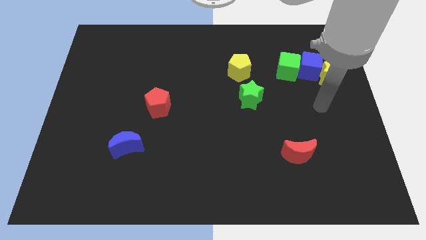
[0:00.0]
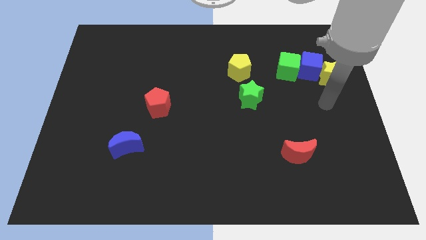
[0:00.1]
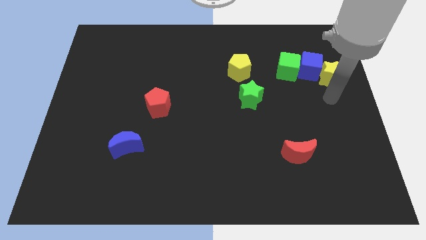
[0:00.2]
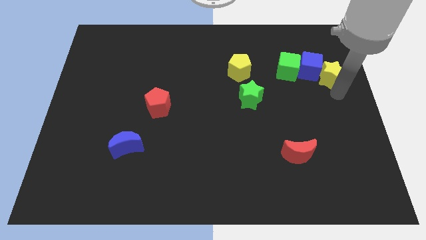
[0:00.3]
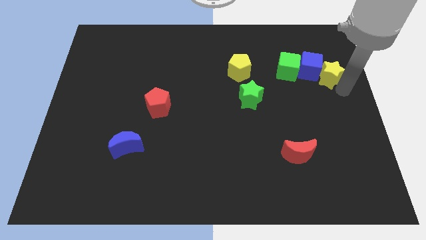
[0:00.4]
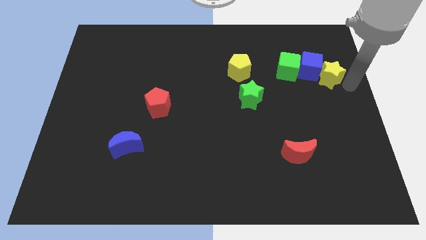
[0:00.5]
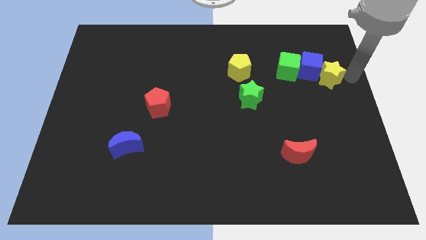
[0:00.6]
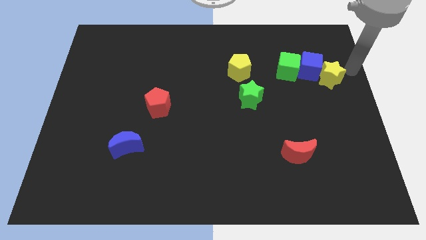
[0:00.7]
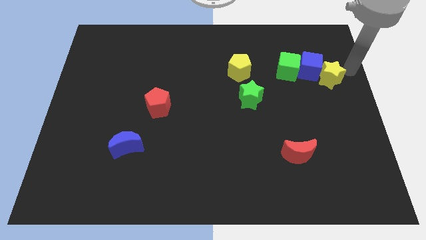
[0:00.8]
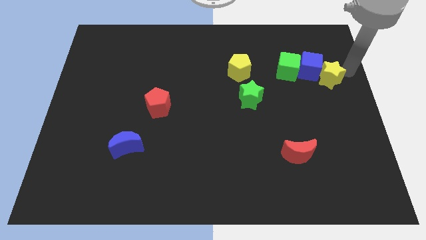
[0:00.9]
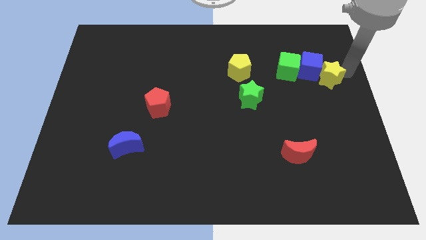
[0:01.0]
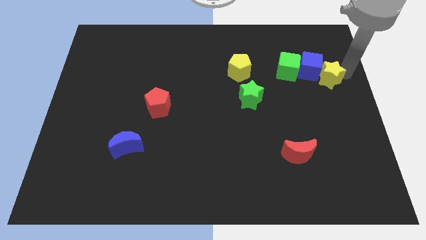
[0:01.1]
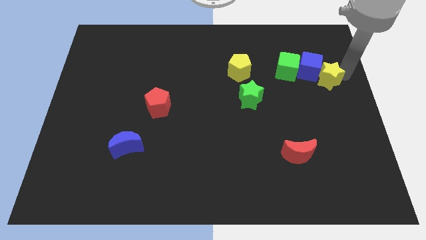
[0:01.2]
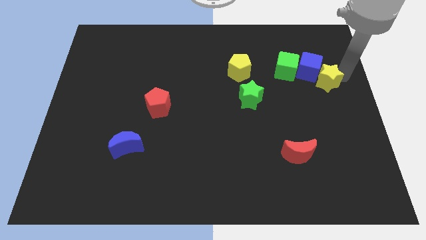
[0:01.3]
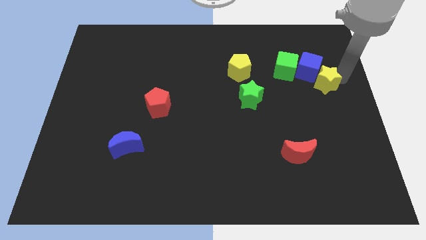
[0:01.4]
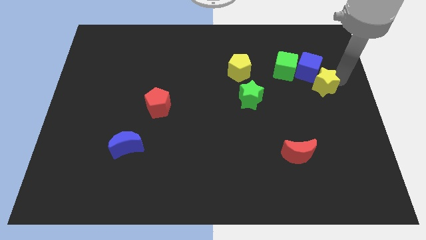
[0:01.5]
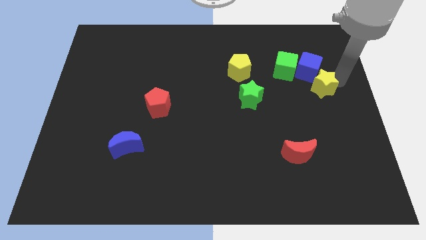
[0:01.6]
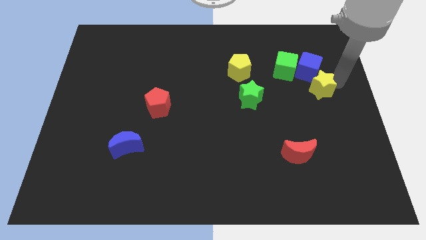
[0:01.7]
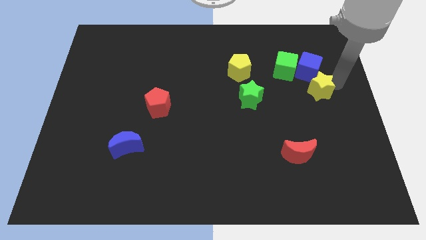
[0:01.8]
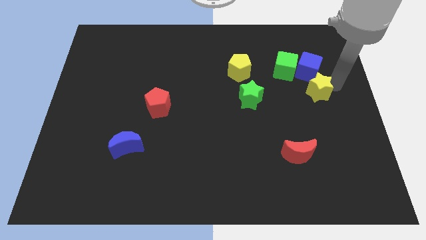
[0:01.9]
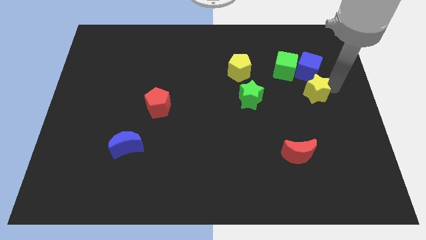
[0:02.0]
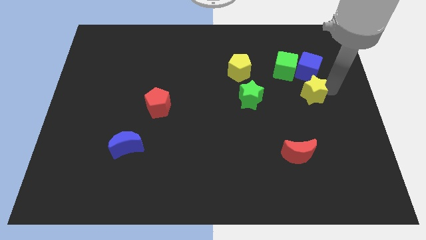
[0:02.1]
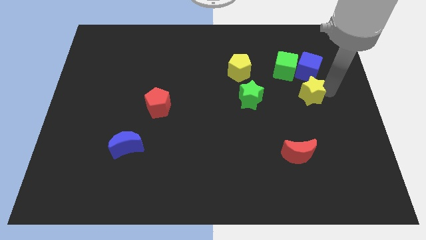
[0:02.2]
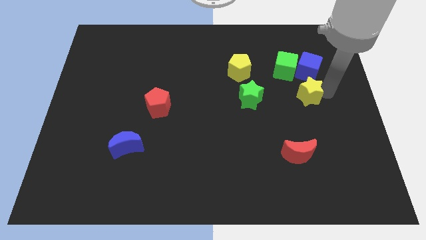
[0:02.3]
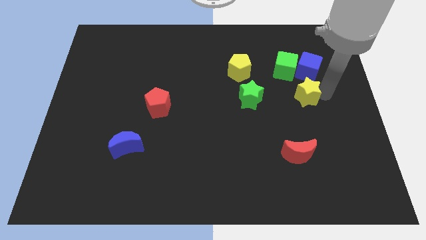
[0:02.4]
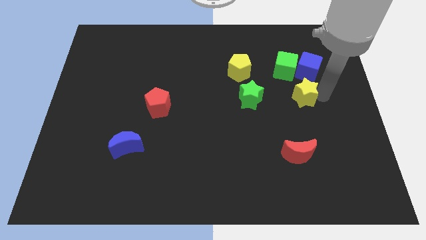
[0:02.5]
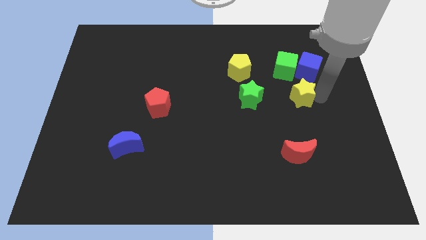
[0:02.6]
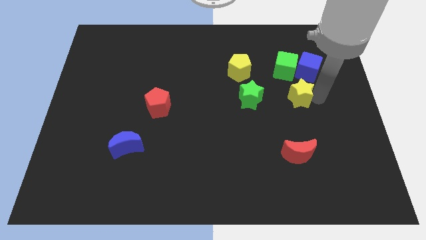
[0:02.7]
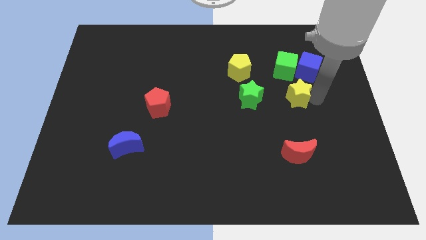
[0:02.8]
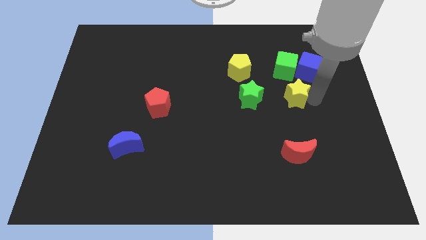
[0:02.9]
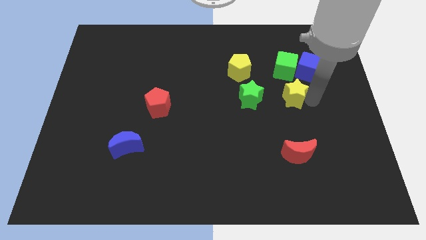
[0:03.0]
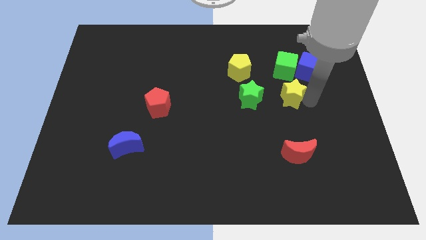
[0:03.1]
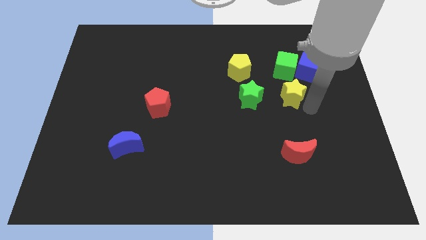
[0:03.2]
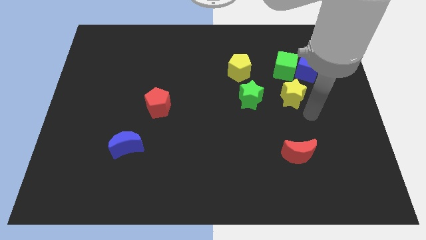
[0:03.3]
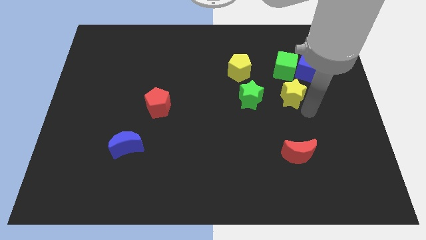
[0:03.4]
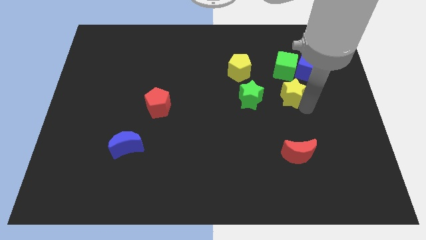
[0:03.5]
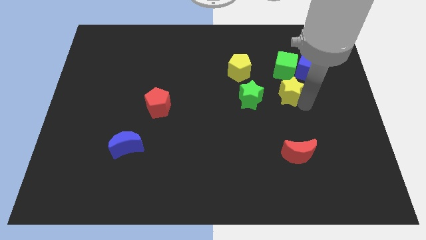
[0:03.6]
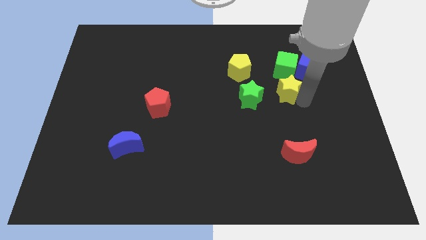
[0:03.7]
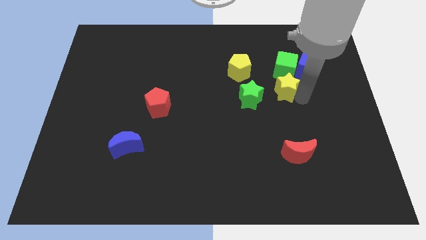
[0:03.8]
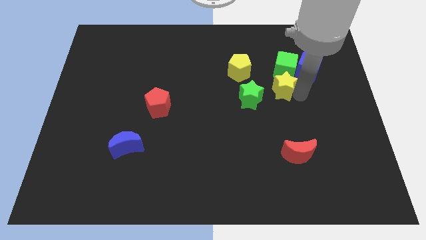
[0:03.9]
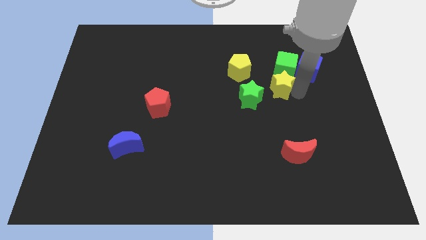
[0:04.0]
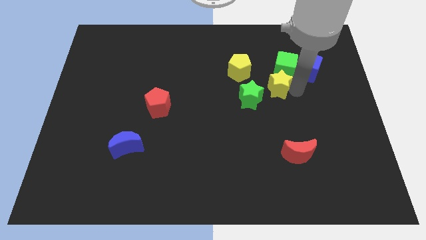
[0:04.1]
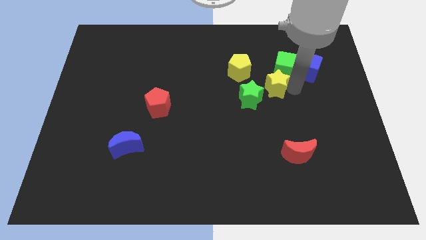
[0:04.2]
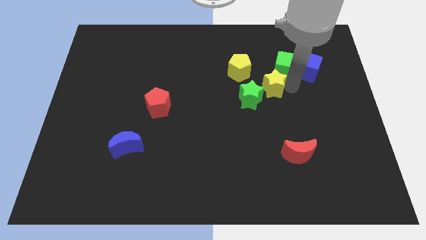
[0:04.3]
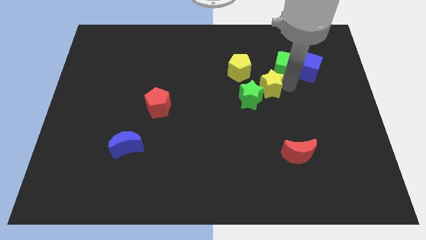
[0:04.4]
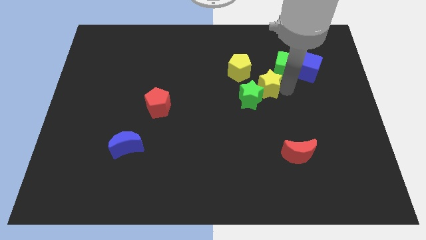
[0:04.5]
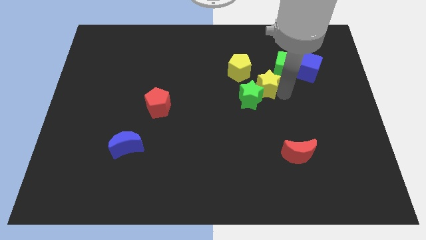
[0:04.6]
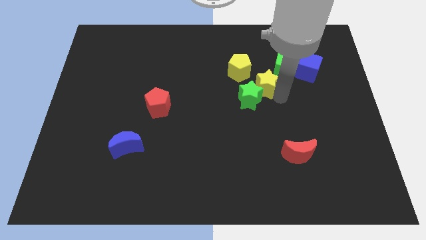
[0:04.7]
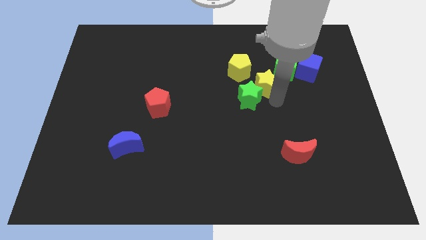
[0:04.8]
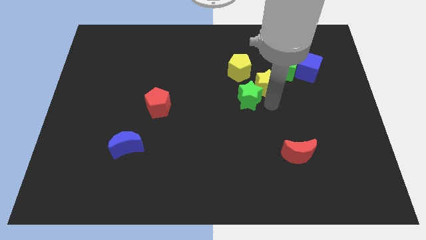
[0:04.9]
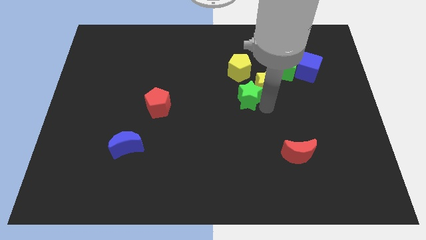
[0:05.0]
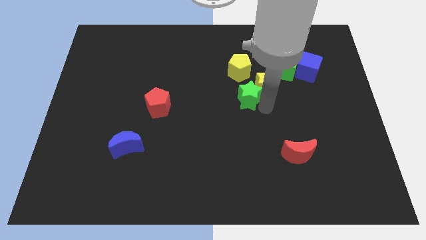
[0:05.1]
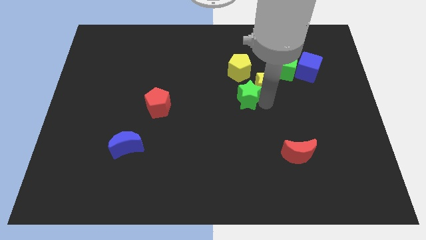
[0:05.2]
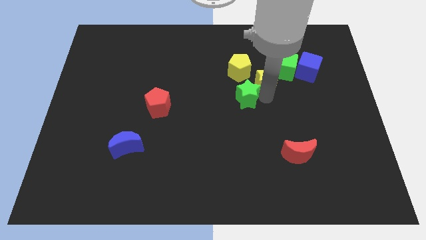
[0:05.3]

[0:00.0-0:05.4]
move the yellow star left of the blue cube

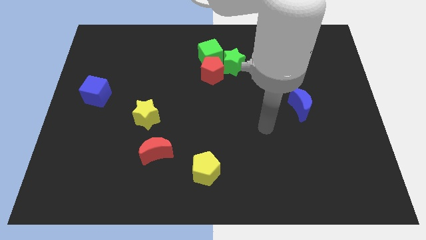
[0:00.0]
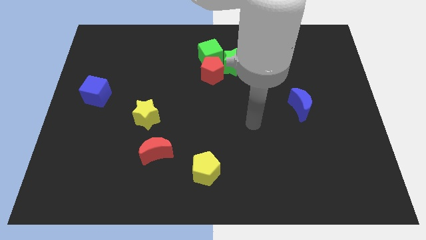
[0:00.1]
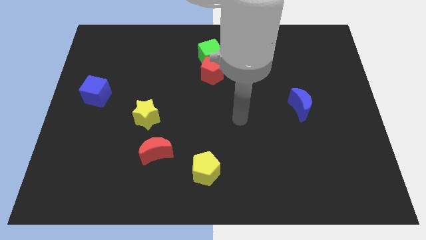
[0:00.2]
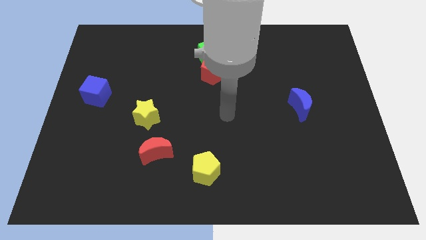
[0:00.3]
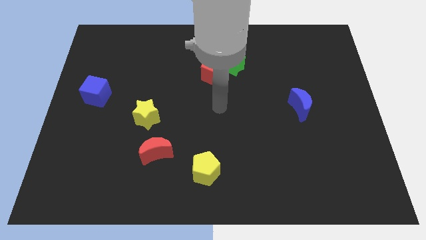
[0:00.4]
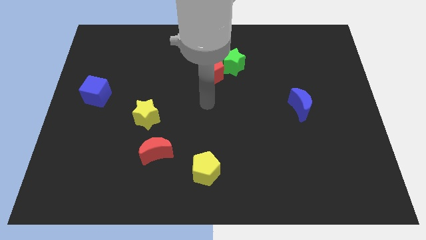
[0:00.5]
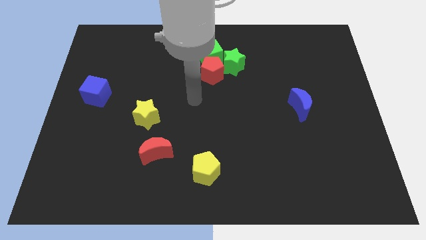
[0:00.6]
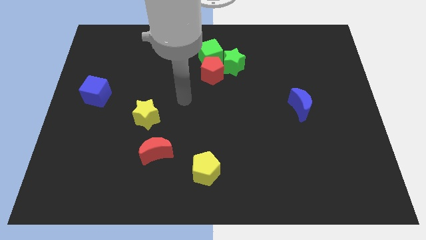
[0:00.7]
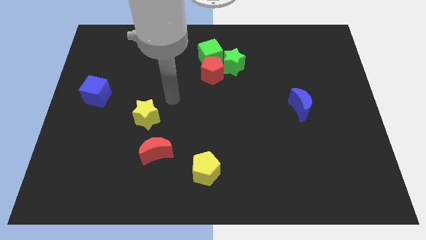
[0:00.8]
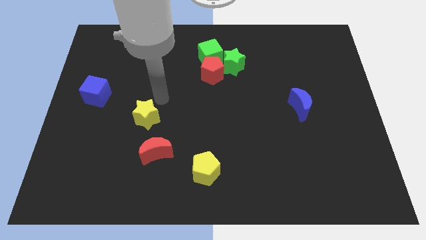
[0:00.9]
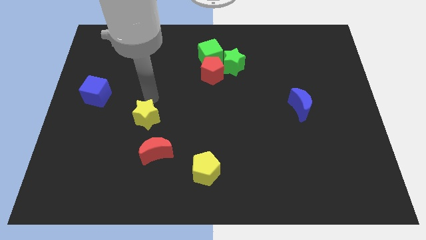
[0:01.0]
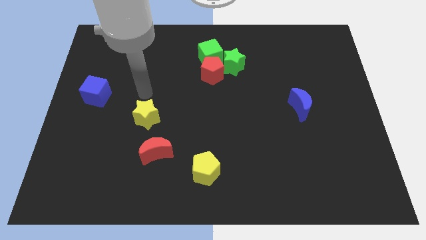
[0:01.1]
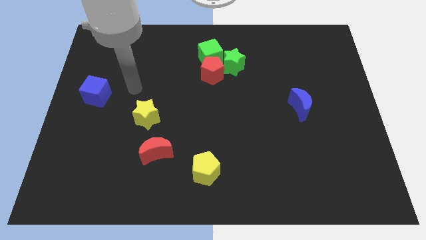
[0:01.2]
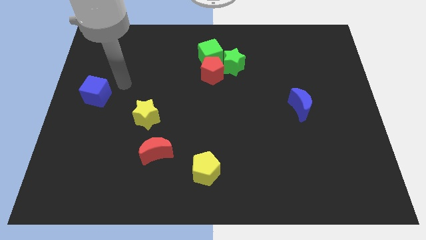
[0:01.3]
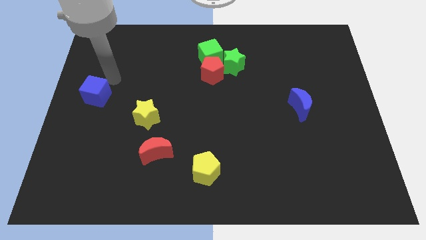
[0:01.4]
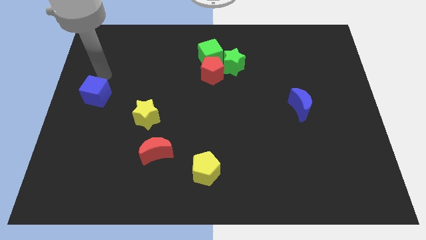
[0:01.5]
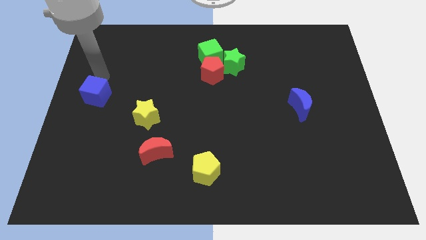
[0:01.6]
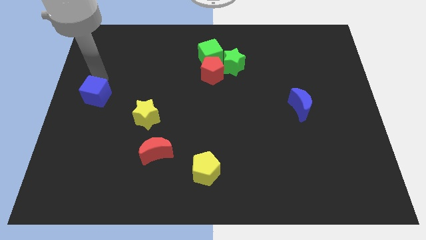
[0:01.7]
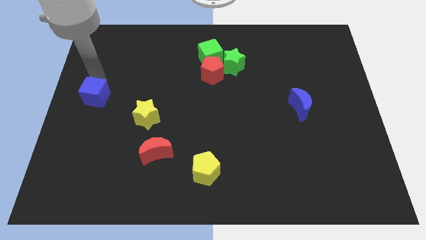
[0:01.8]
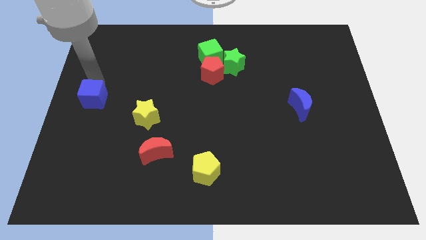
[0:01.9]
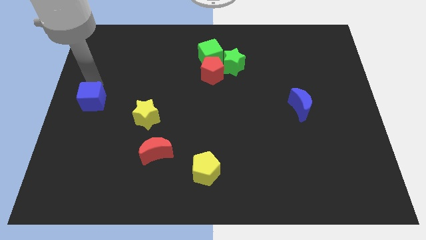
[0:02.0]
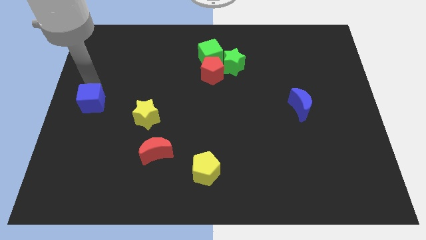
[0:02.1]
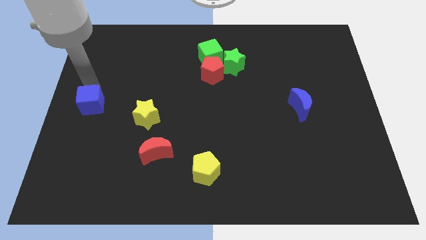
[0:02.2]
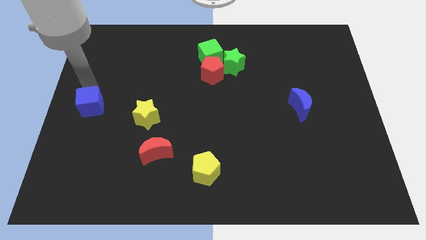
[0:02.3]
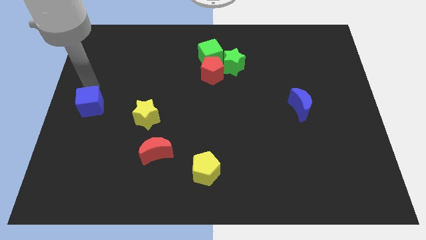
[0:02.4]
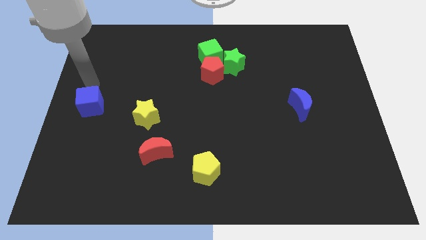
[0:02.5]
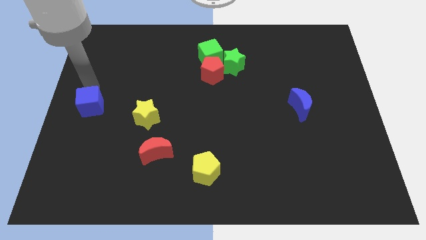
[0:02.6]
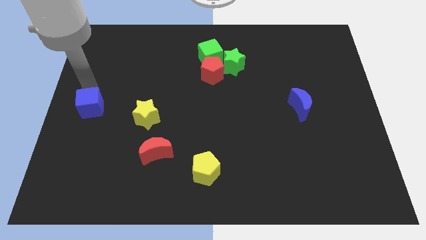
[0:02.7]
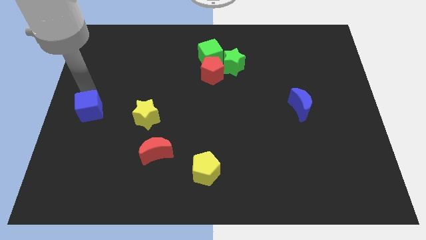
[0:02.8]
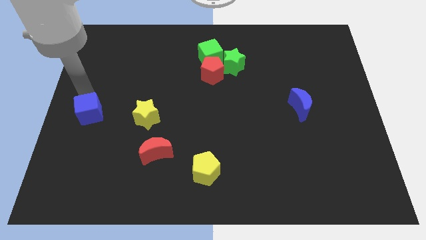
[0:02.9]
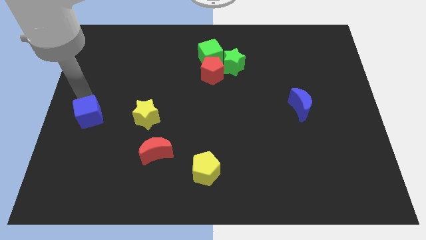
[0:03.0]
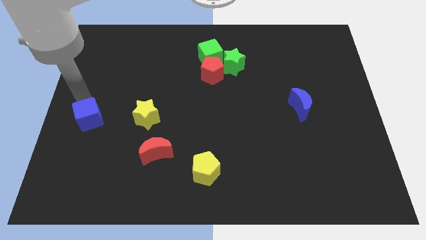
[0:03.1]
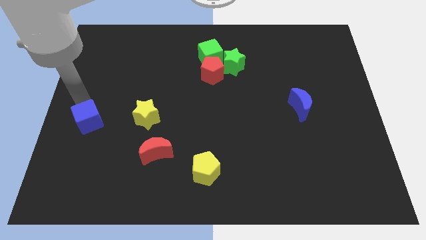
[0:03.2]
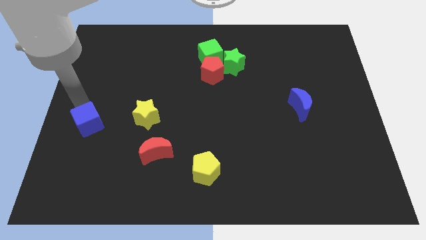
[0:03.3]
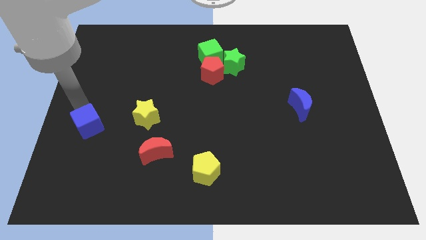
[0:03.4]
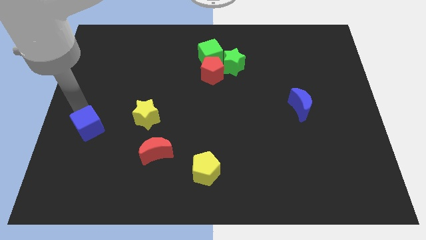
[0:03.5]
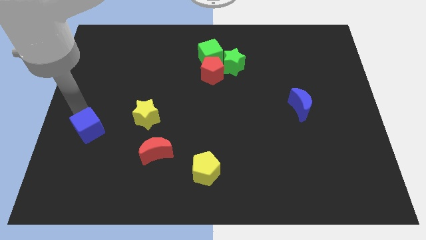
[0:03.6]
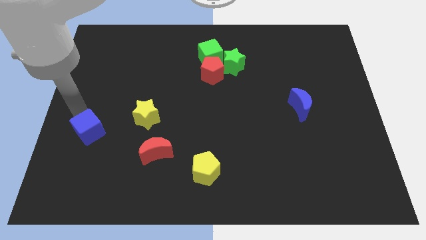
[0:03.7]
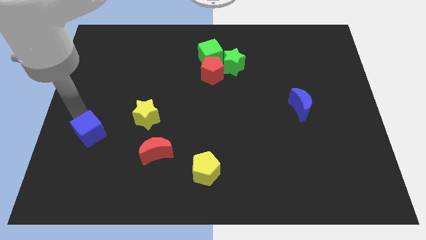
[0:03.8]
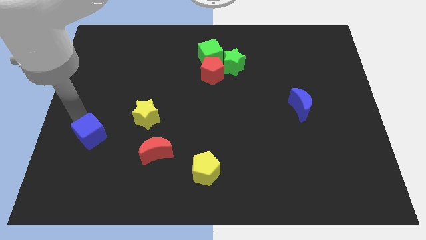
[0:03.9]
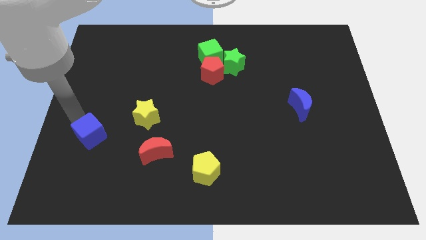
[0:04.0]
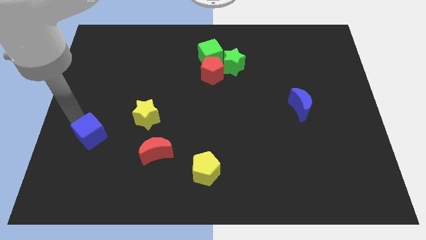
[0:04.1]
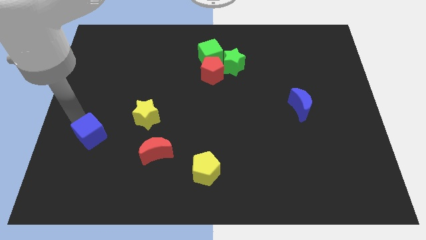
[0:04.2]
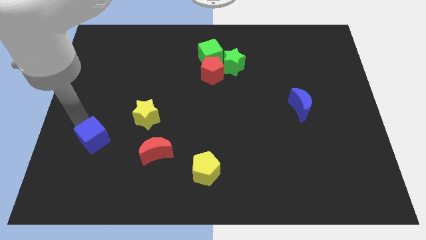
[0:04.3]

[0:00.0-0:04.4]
push the blue cube to the left of the red moon
